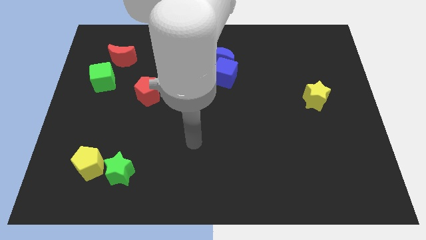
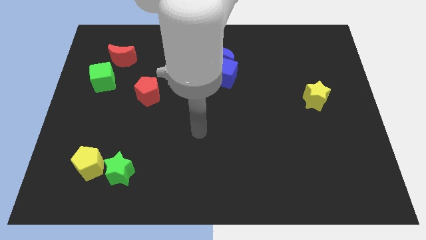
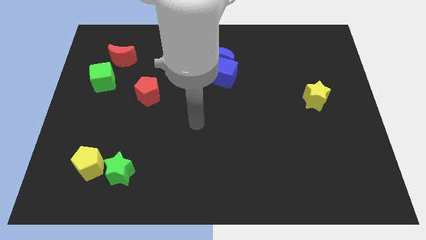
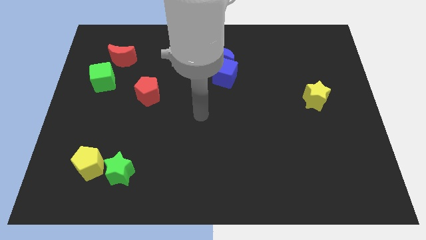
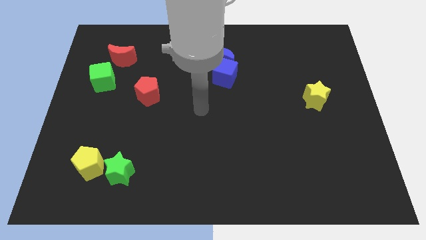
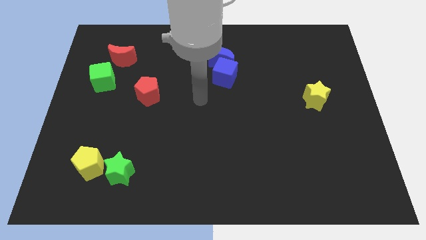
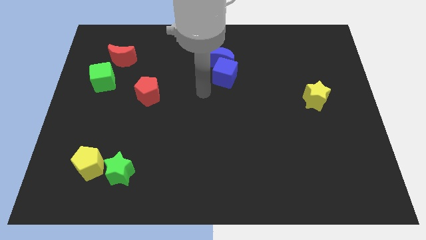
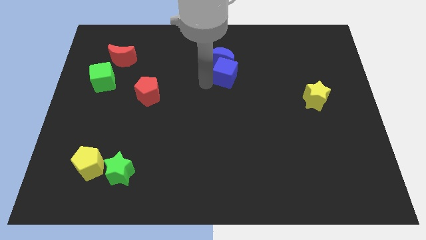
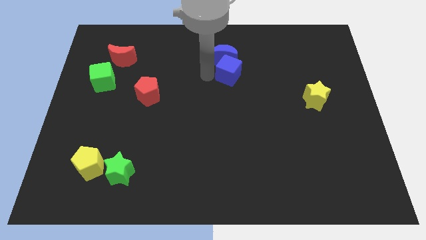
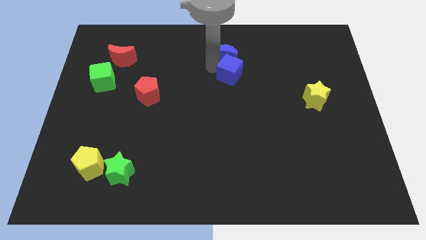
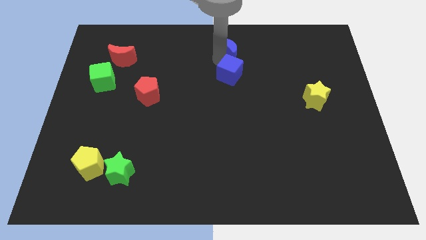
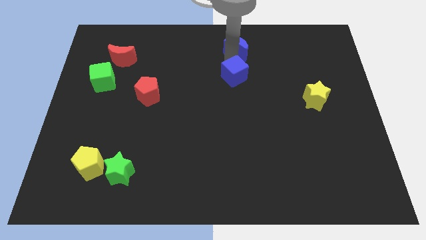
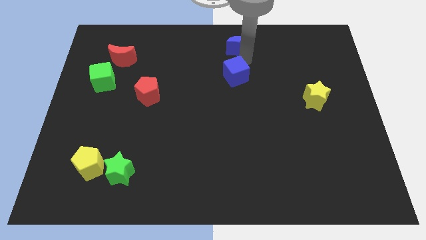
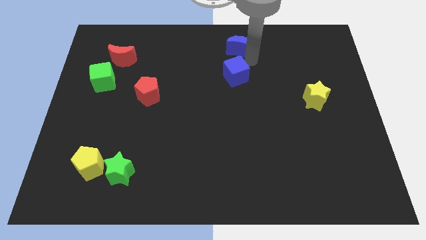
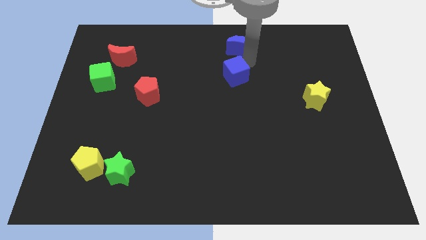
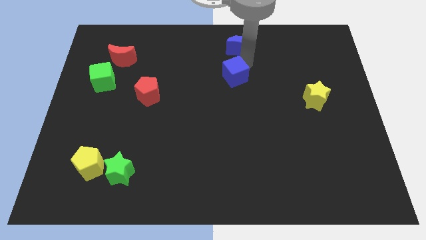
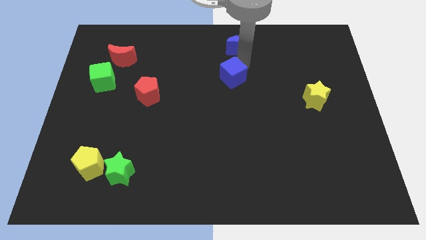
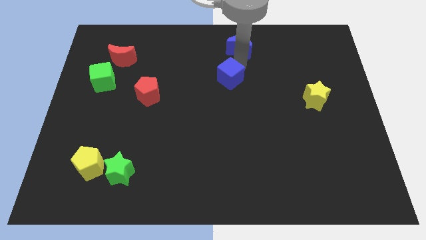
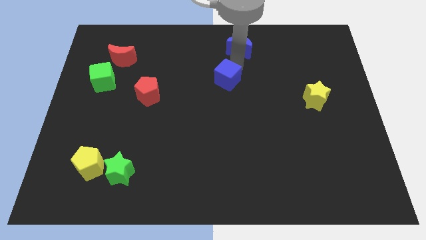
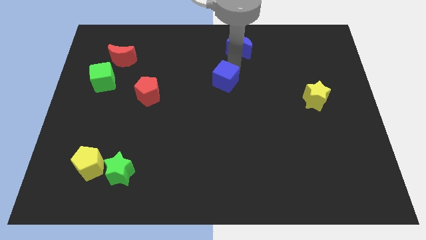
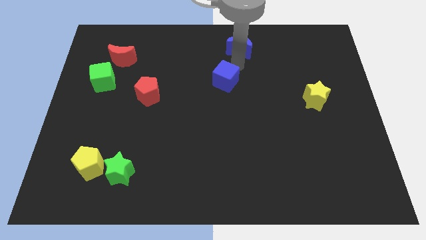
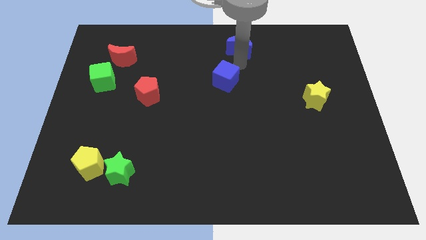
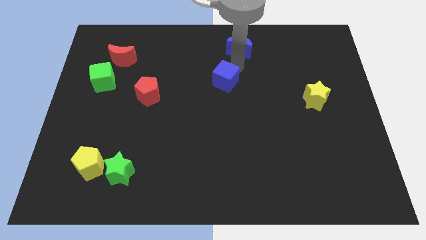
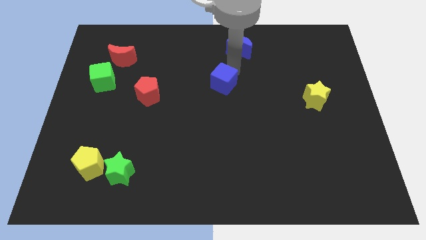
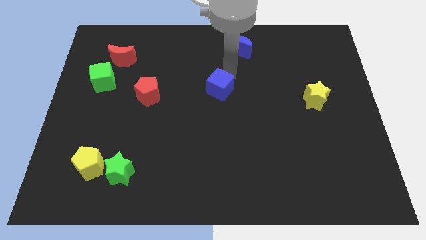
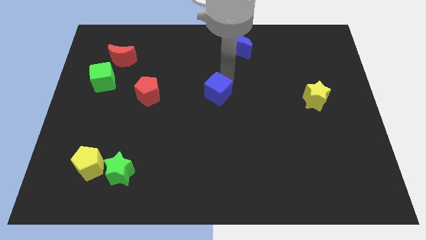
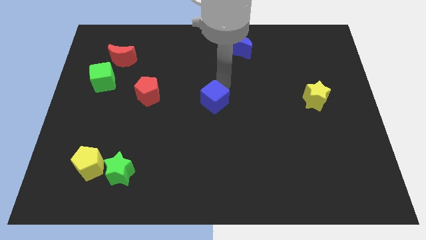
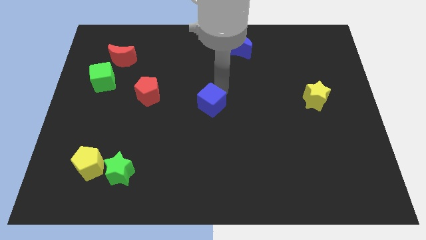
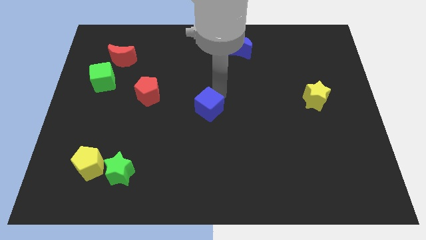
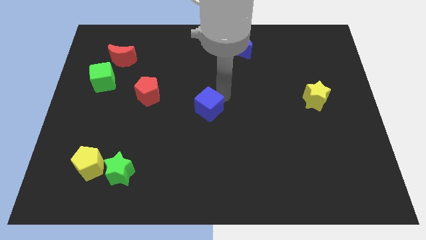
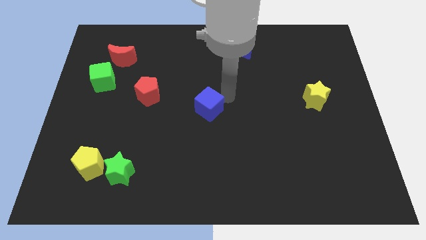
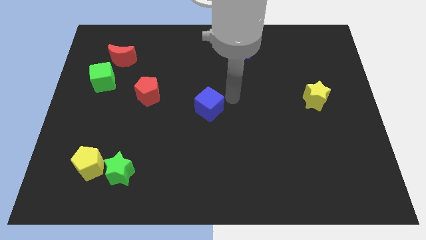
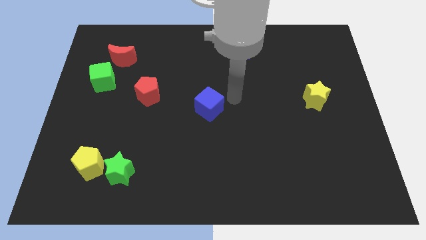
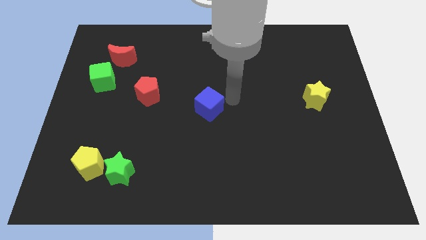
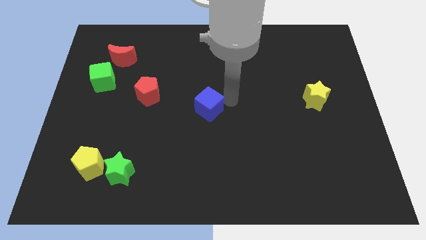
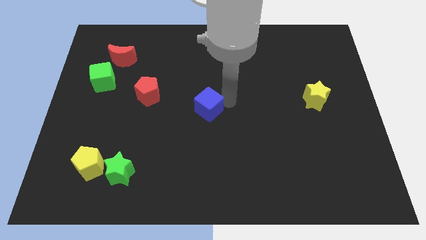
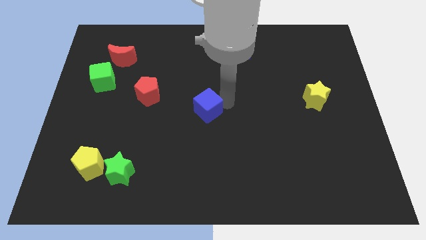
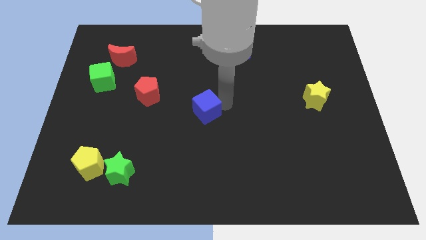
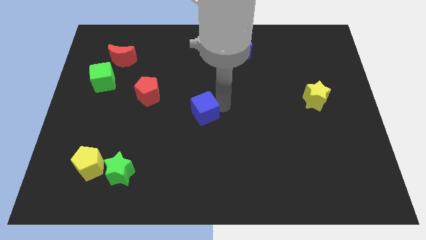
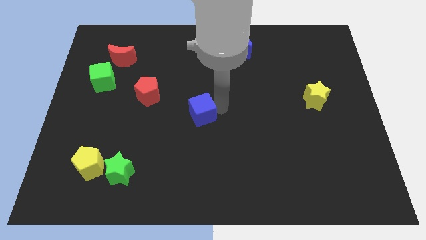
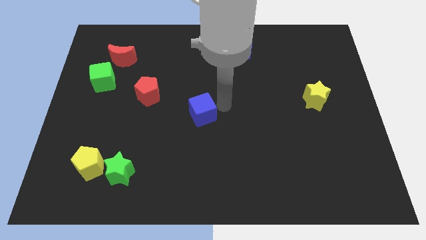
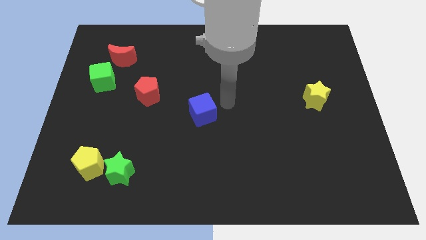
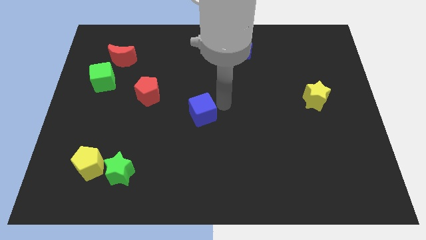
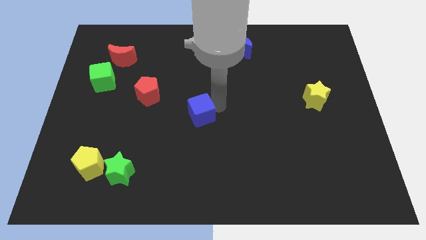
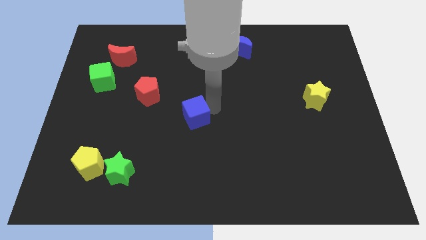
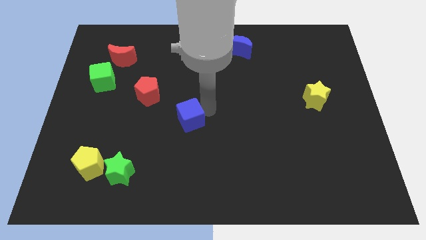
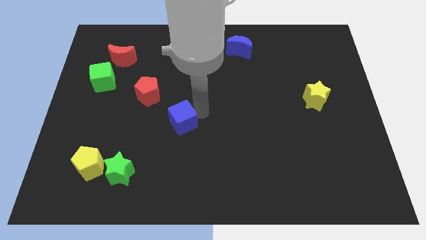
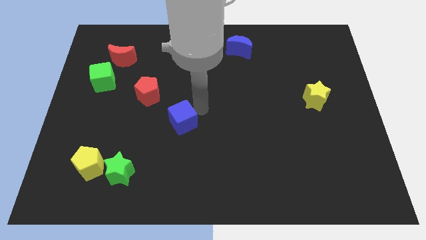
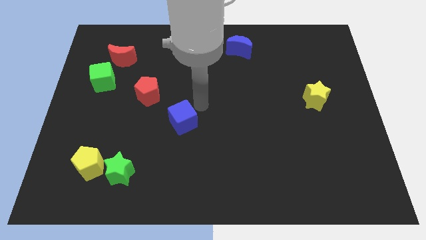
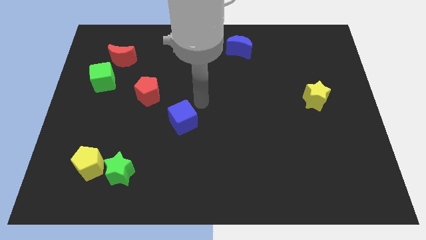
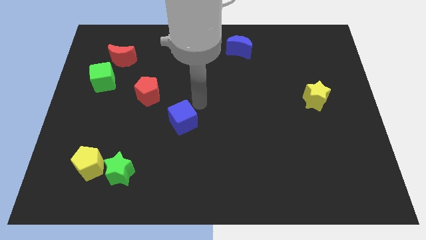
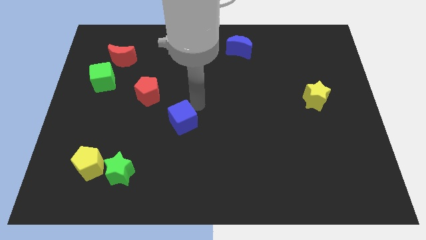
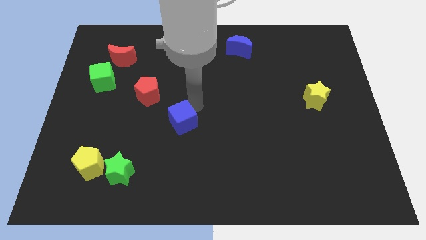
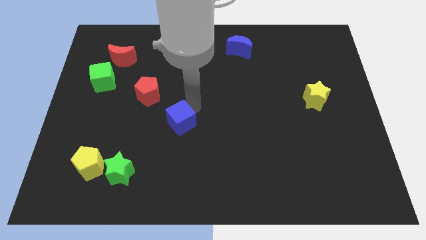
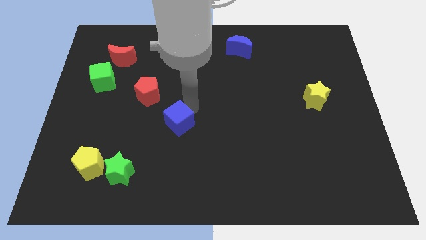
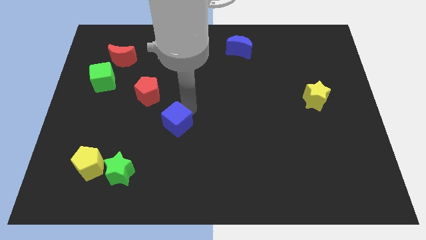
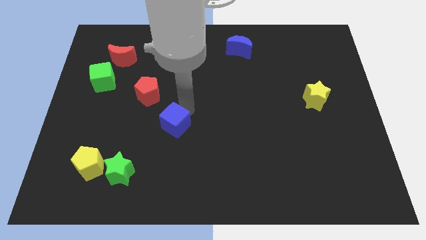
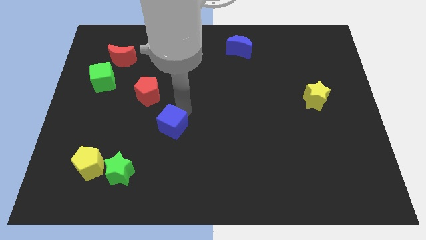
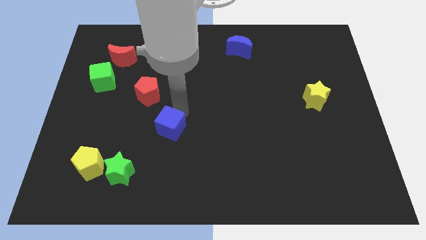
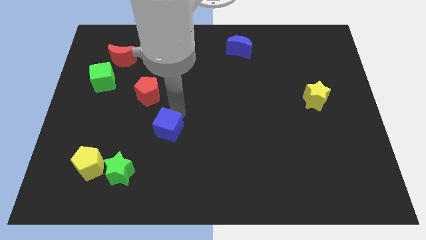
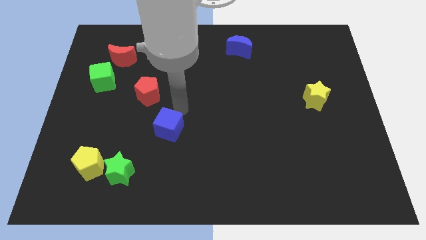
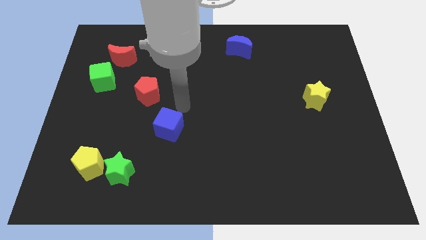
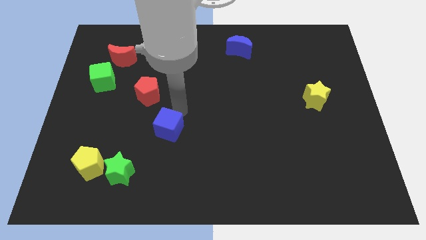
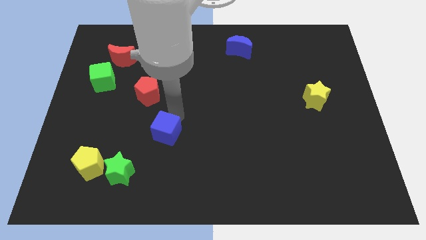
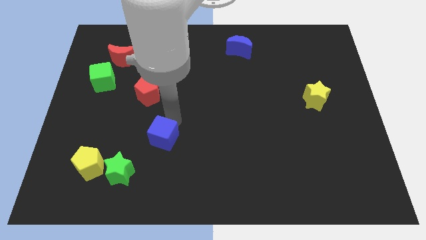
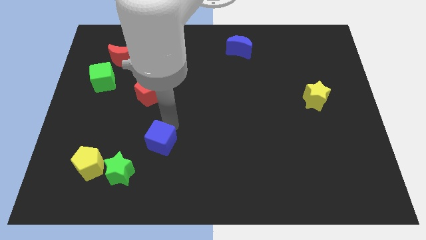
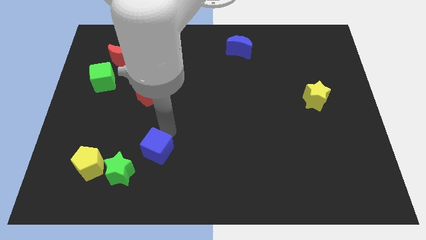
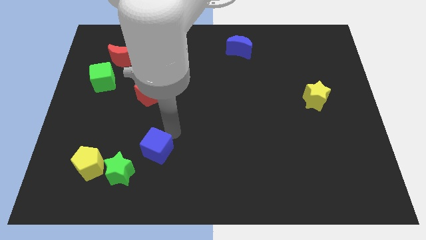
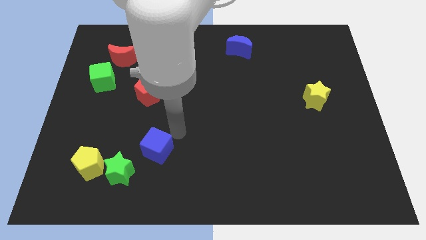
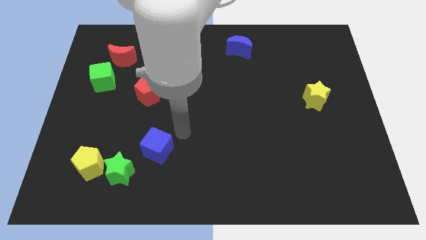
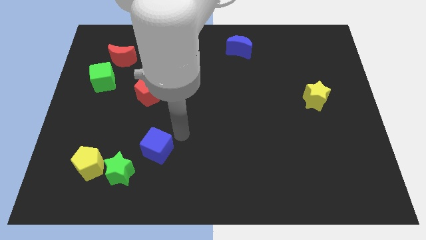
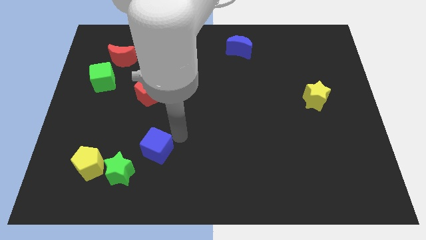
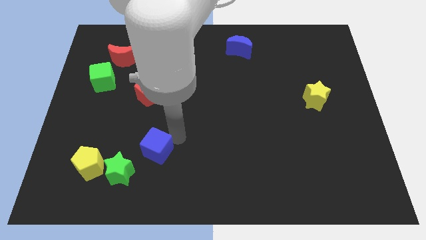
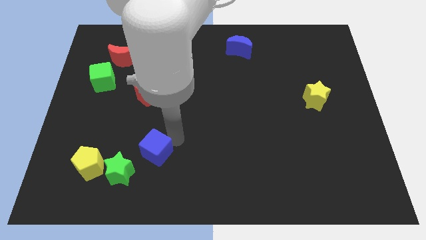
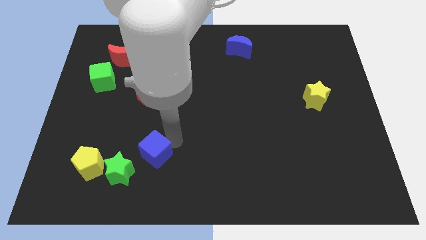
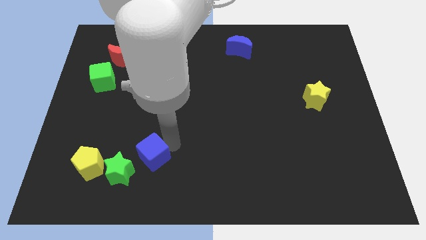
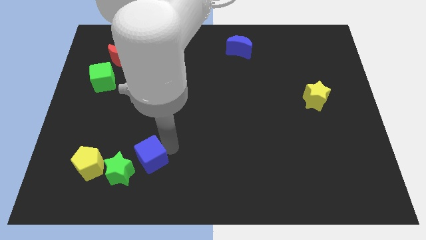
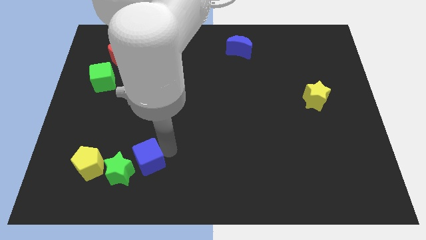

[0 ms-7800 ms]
push the blue cube to the green star
